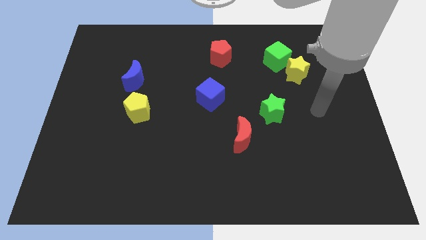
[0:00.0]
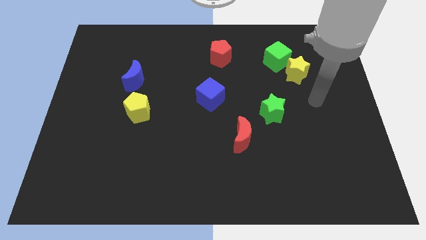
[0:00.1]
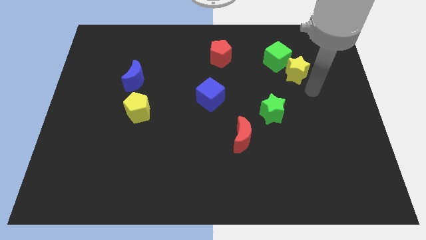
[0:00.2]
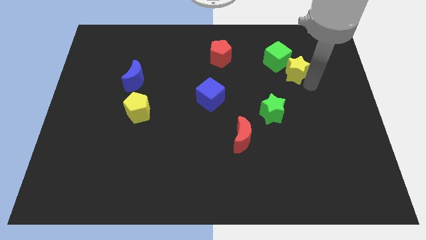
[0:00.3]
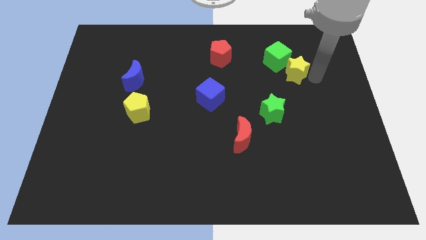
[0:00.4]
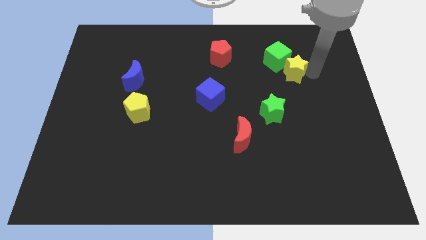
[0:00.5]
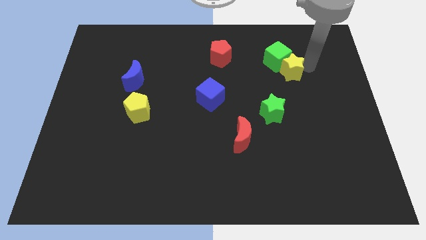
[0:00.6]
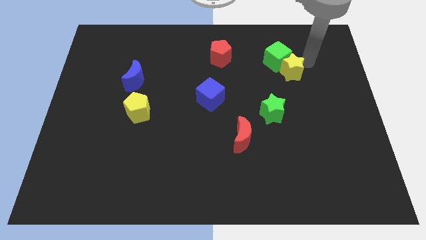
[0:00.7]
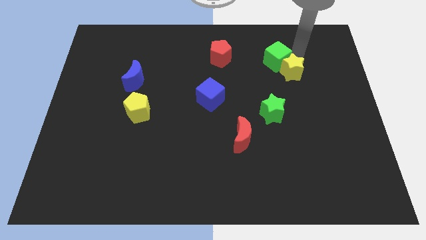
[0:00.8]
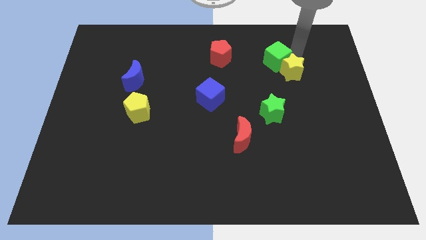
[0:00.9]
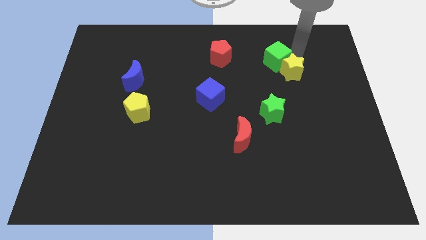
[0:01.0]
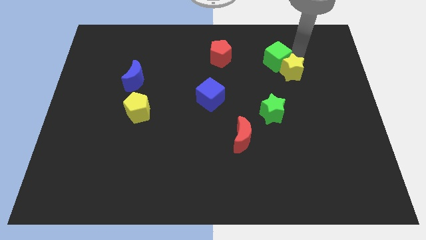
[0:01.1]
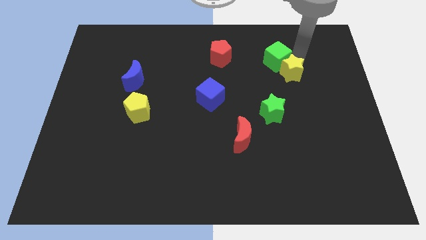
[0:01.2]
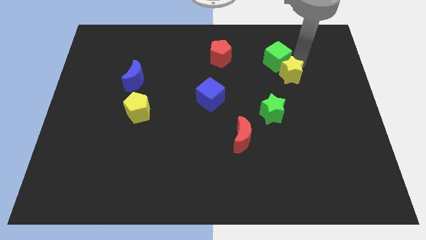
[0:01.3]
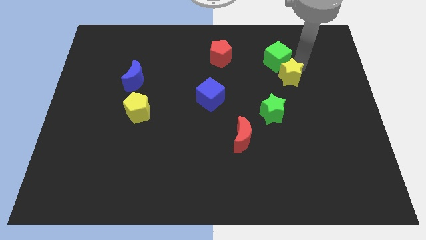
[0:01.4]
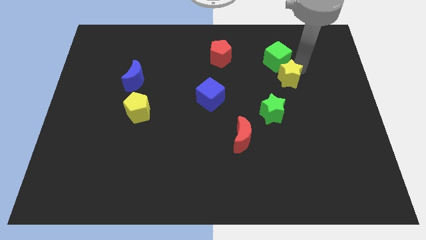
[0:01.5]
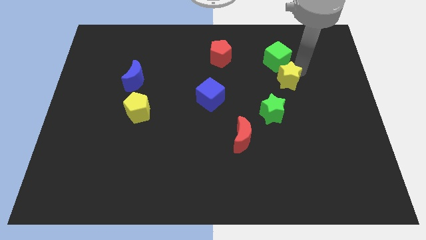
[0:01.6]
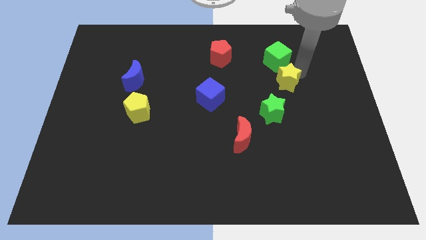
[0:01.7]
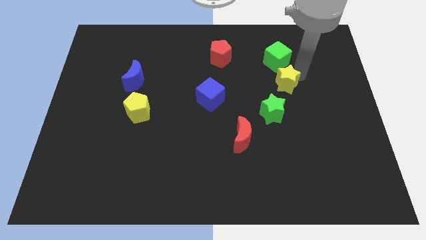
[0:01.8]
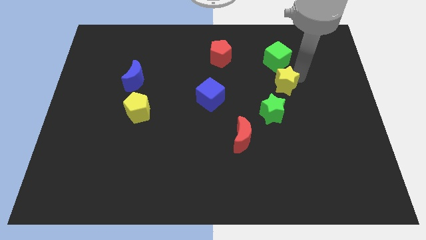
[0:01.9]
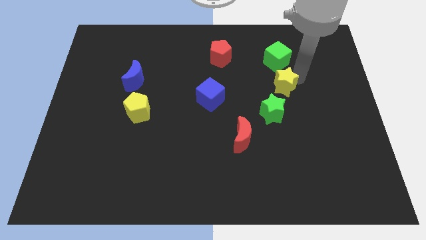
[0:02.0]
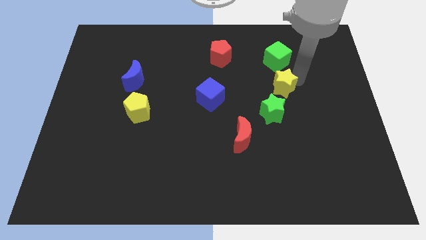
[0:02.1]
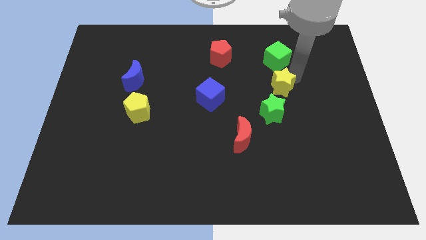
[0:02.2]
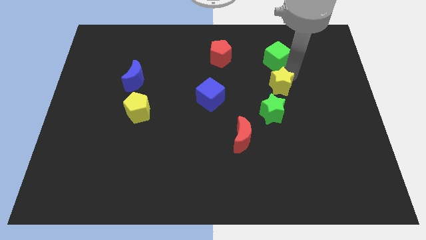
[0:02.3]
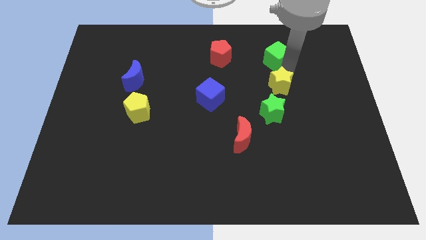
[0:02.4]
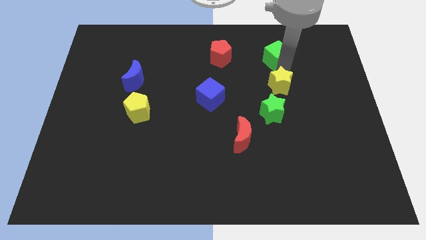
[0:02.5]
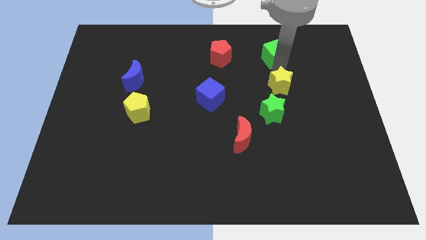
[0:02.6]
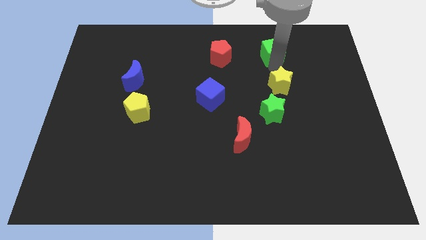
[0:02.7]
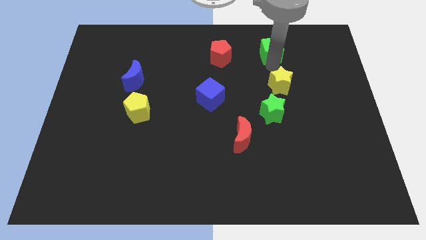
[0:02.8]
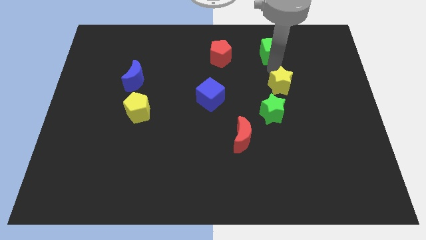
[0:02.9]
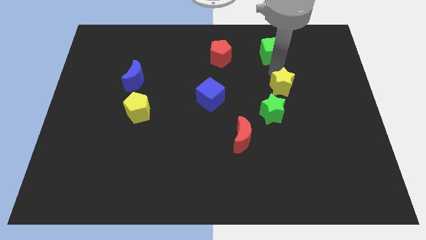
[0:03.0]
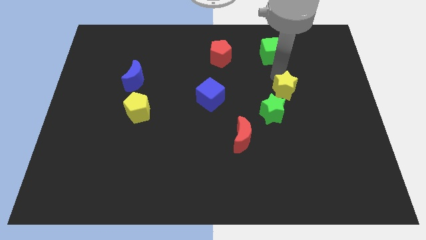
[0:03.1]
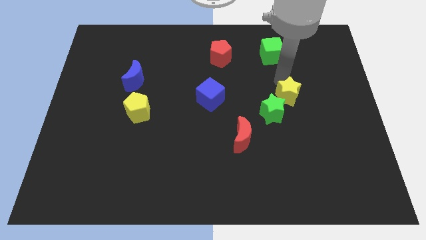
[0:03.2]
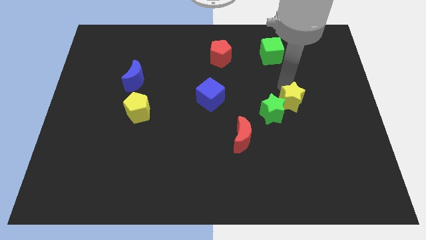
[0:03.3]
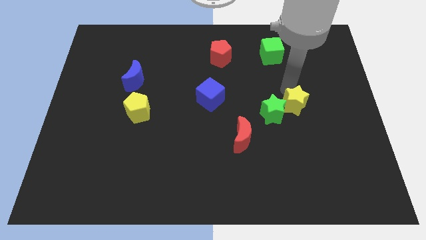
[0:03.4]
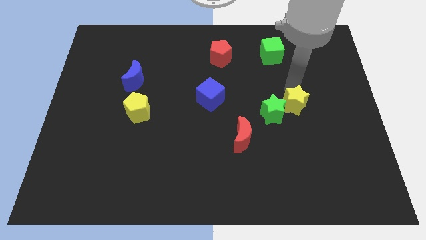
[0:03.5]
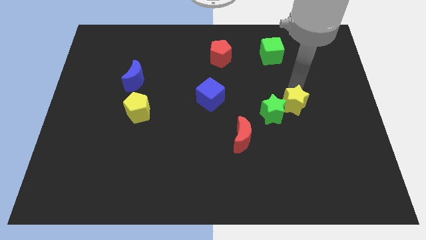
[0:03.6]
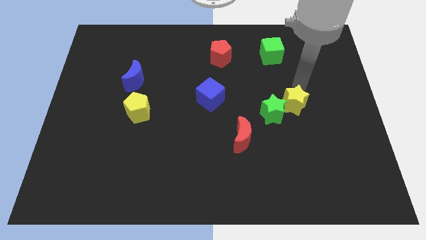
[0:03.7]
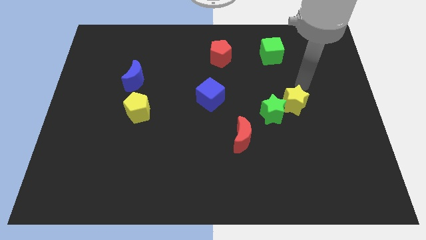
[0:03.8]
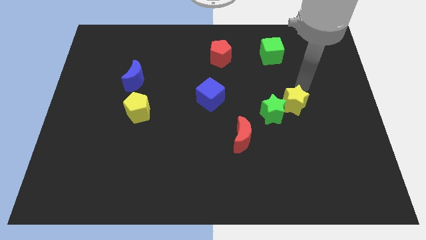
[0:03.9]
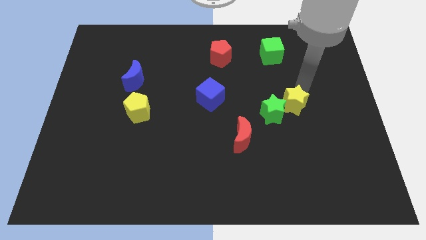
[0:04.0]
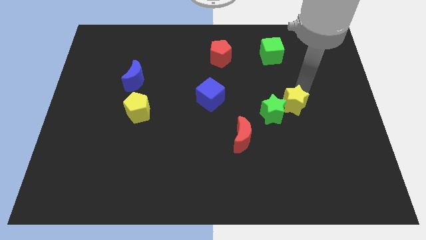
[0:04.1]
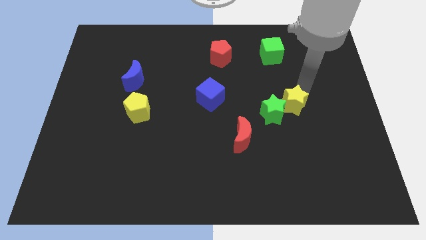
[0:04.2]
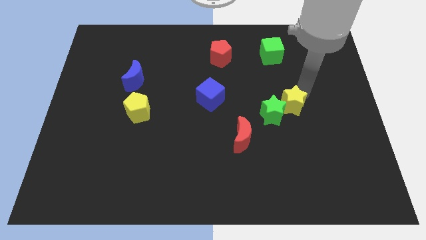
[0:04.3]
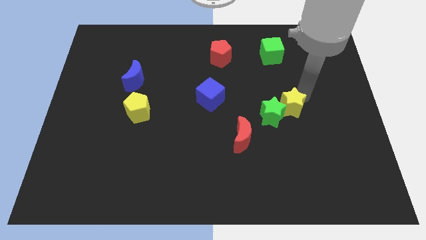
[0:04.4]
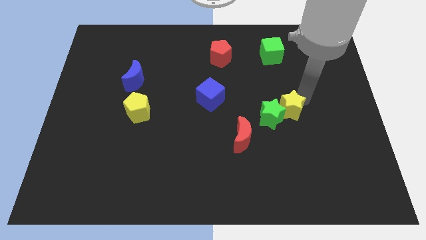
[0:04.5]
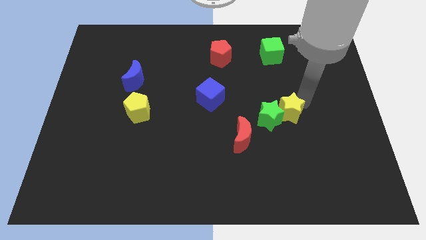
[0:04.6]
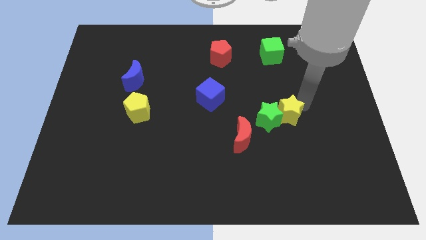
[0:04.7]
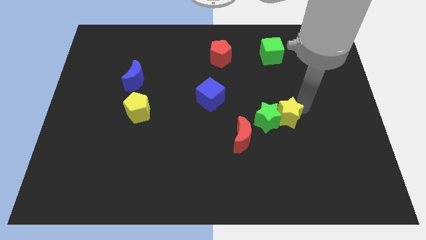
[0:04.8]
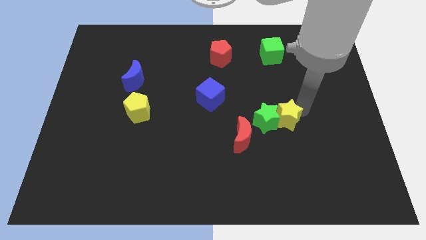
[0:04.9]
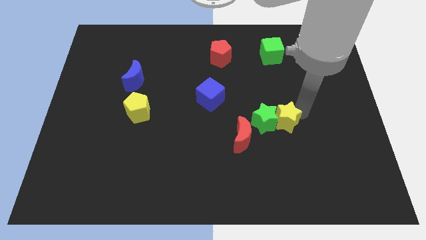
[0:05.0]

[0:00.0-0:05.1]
put the yellow star to the right of the red moon

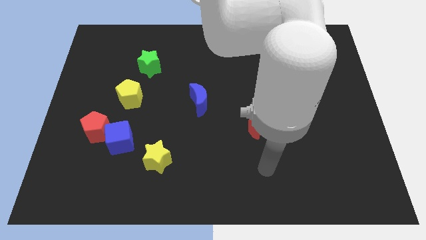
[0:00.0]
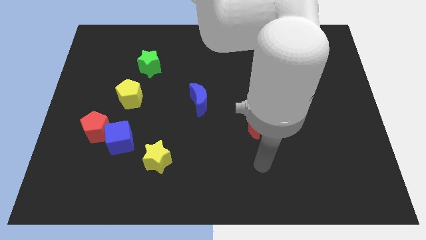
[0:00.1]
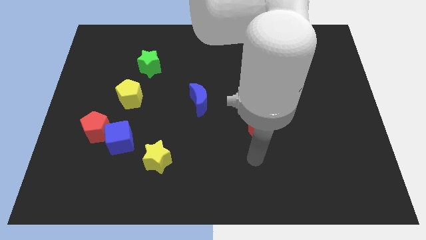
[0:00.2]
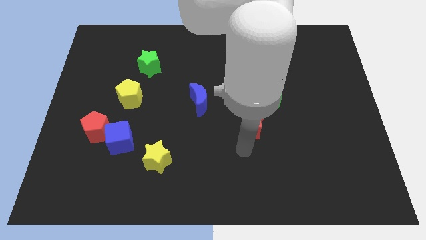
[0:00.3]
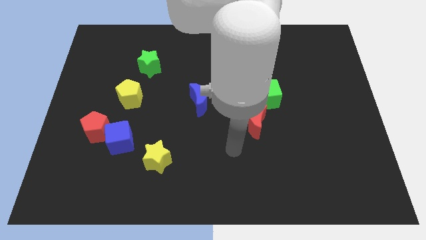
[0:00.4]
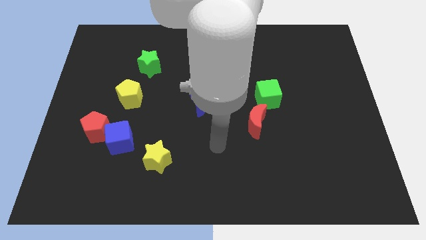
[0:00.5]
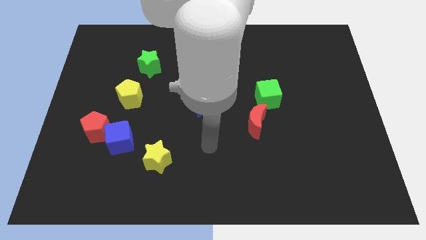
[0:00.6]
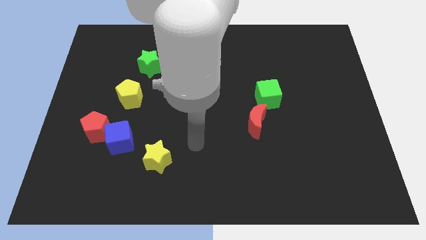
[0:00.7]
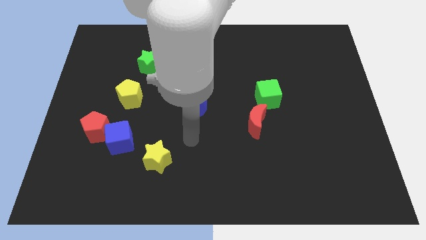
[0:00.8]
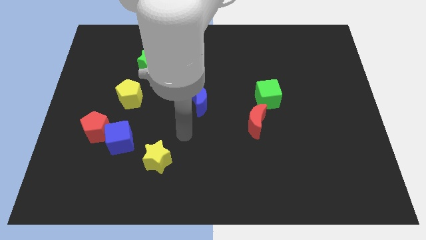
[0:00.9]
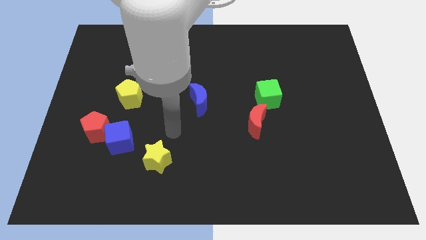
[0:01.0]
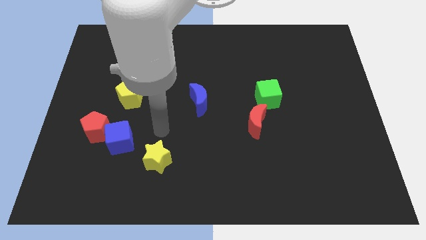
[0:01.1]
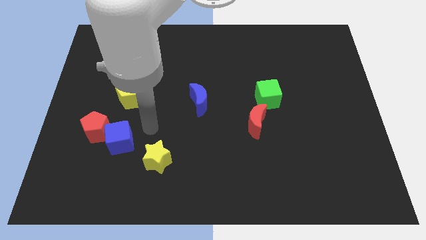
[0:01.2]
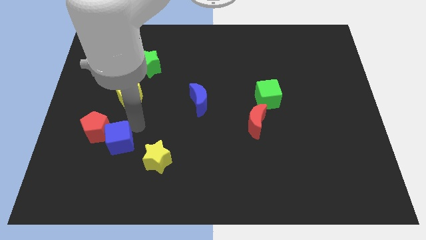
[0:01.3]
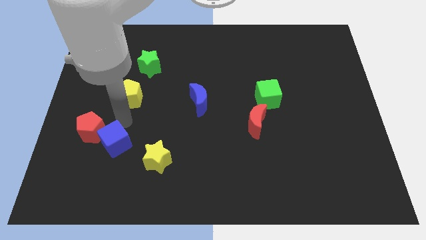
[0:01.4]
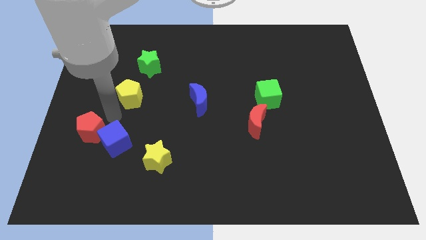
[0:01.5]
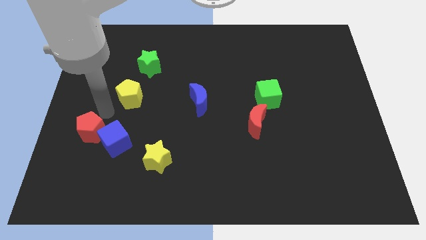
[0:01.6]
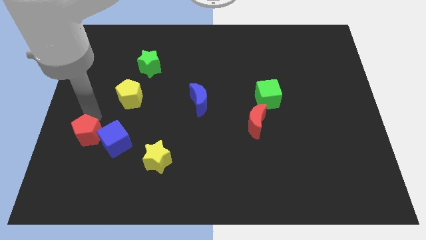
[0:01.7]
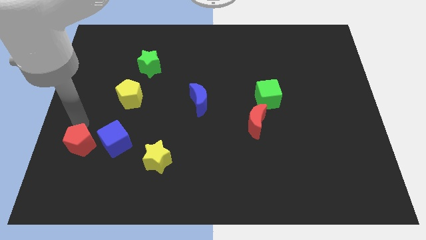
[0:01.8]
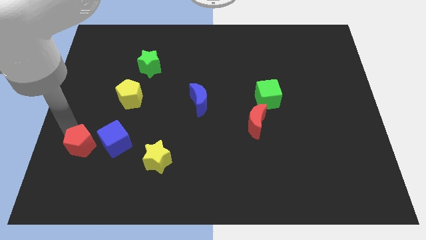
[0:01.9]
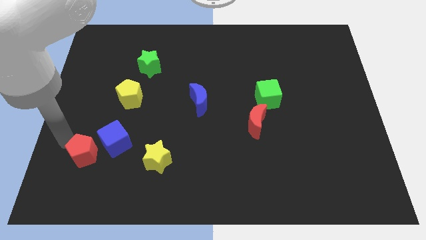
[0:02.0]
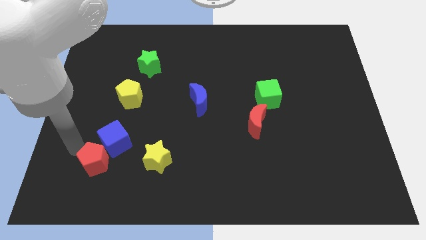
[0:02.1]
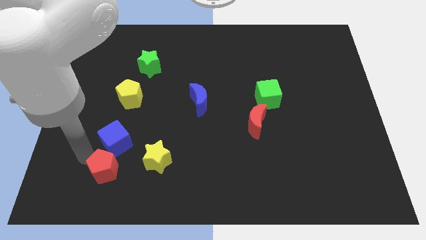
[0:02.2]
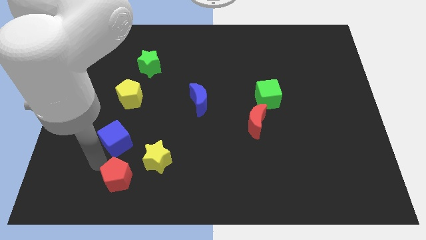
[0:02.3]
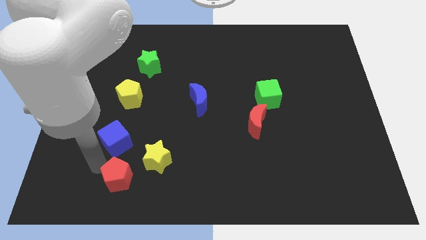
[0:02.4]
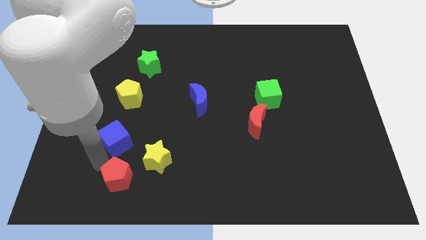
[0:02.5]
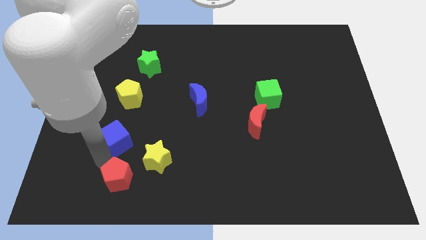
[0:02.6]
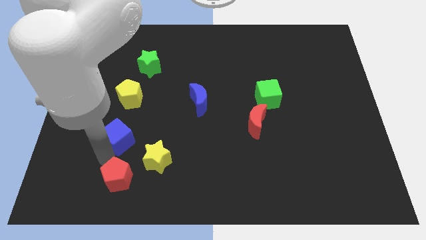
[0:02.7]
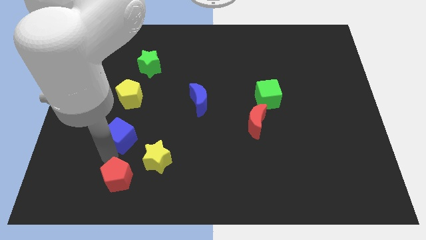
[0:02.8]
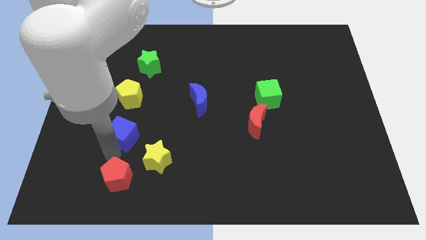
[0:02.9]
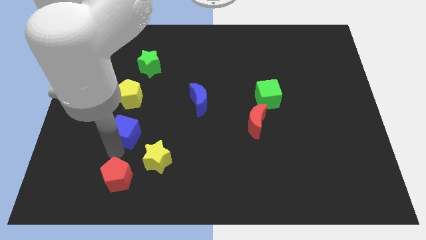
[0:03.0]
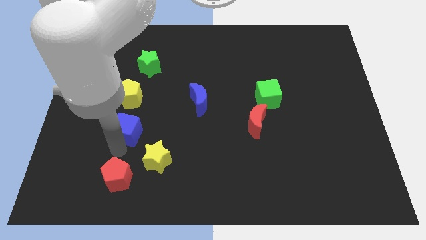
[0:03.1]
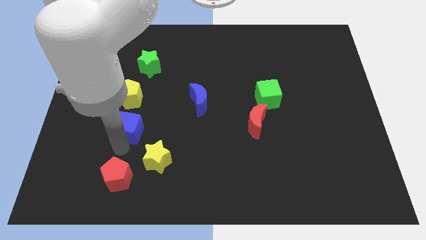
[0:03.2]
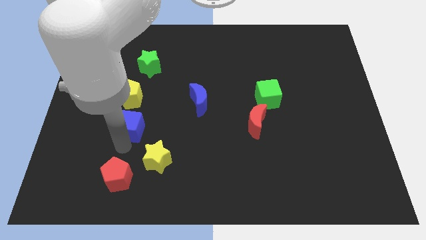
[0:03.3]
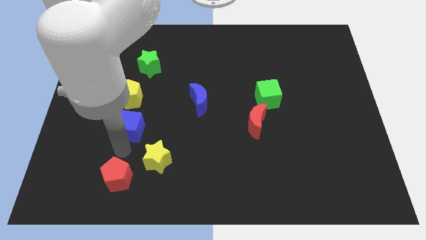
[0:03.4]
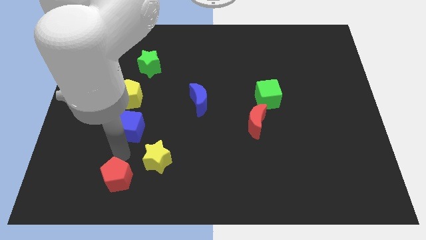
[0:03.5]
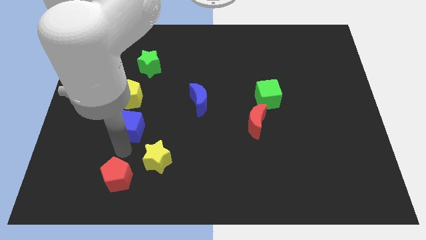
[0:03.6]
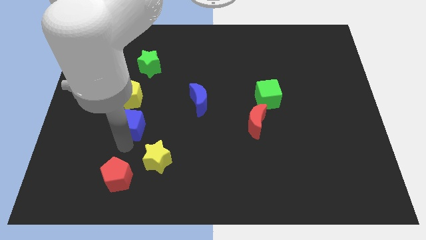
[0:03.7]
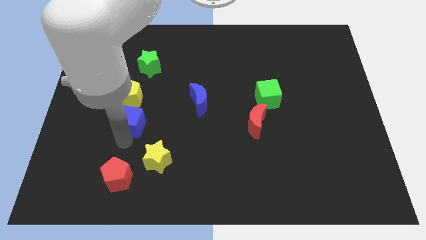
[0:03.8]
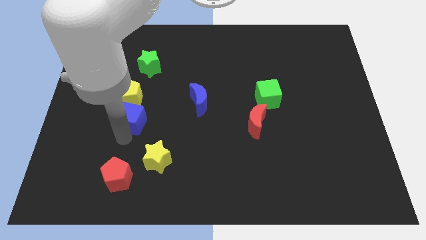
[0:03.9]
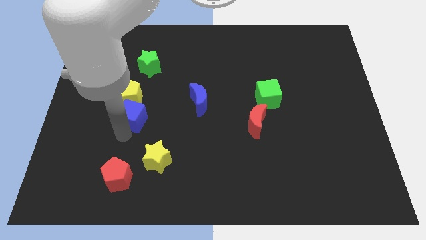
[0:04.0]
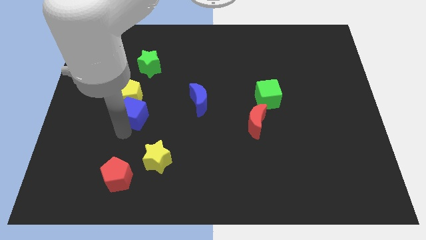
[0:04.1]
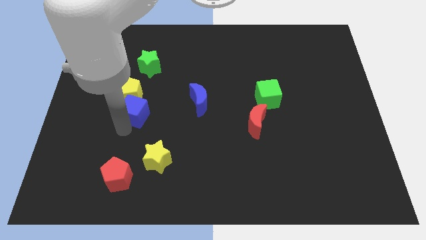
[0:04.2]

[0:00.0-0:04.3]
move the blue cube to the left side of the blue moon
